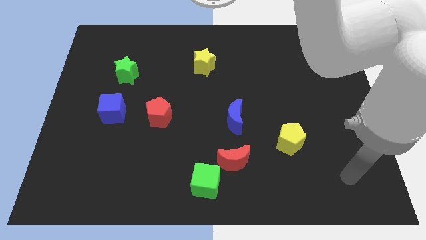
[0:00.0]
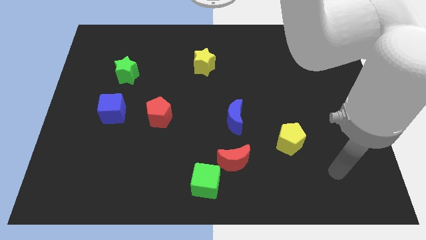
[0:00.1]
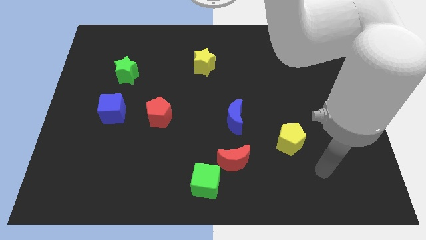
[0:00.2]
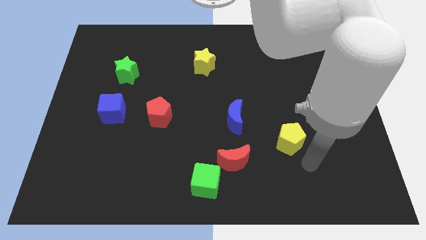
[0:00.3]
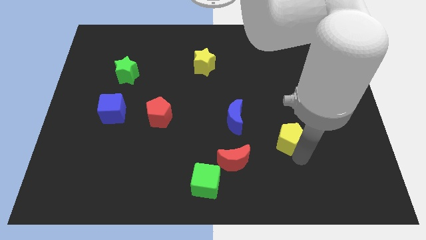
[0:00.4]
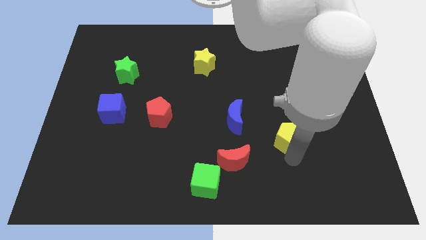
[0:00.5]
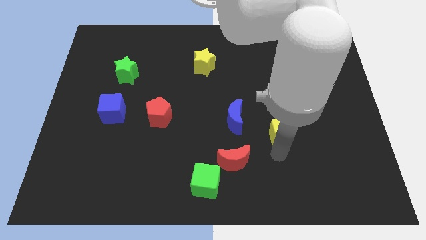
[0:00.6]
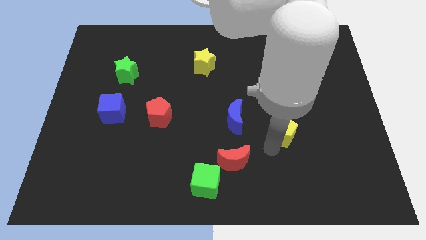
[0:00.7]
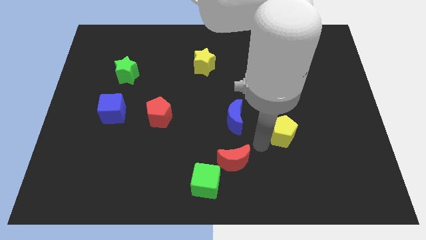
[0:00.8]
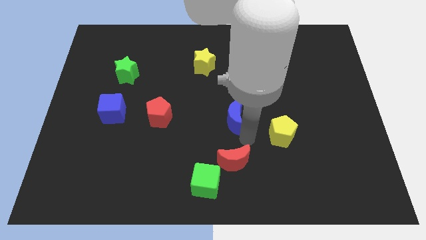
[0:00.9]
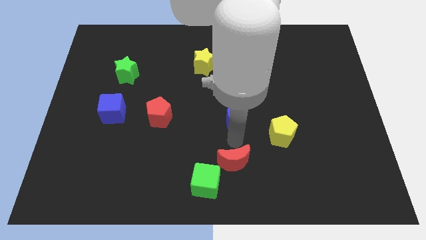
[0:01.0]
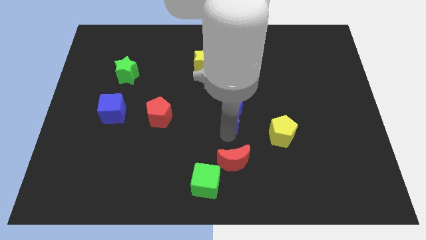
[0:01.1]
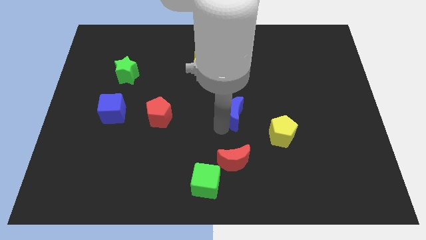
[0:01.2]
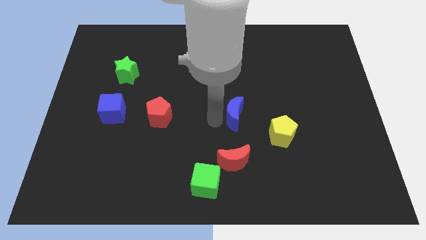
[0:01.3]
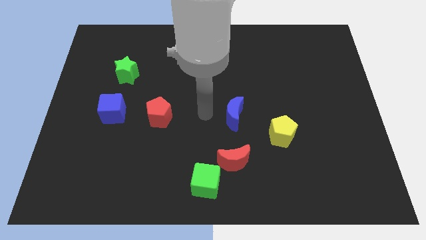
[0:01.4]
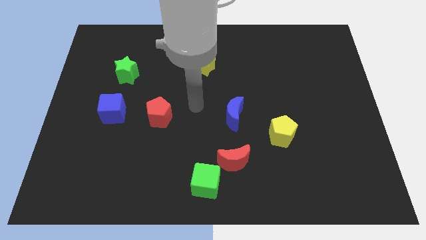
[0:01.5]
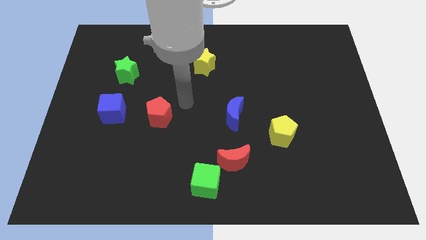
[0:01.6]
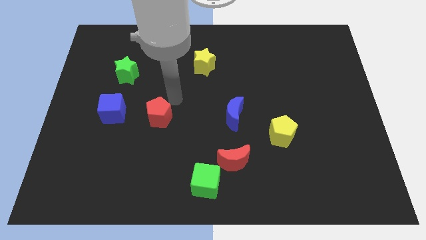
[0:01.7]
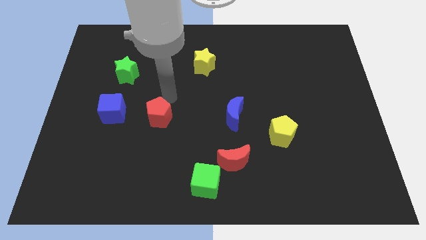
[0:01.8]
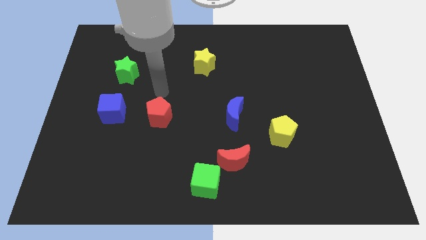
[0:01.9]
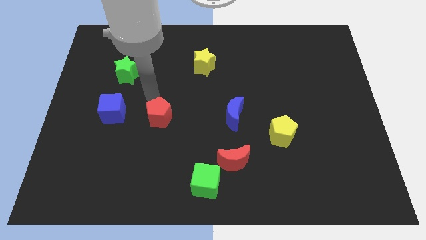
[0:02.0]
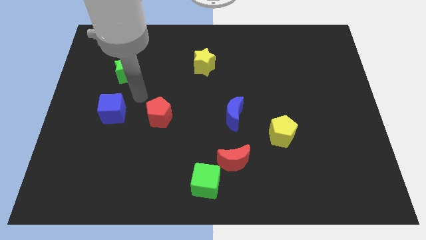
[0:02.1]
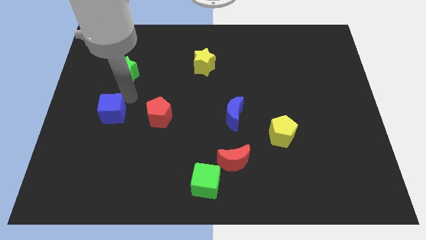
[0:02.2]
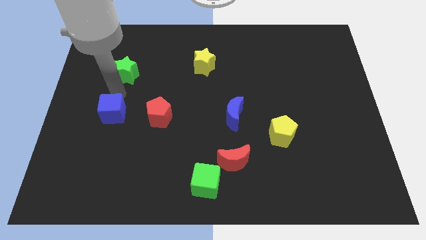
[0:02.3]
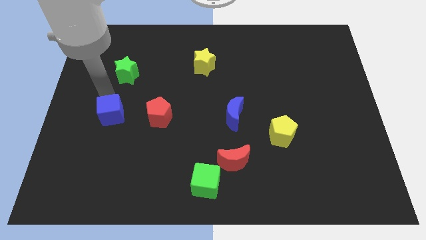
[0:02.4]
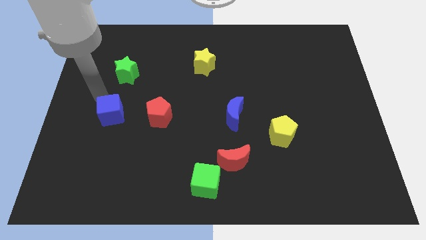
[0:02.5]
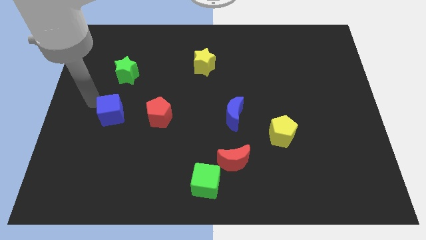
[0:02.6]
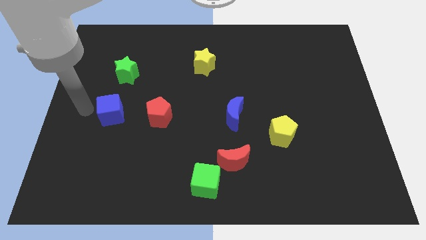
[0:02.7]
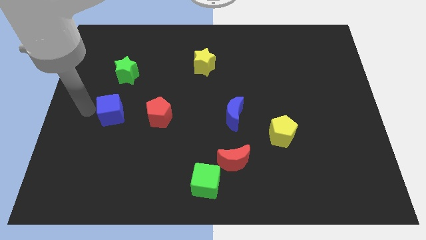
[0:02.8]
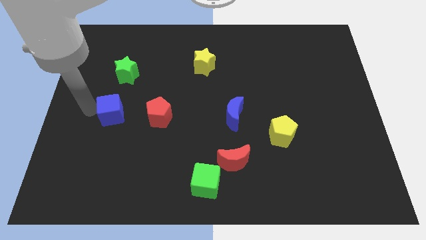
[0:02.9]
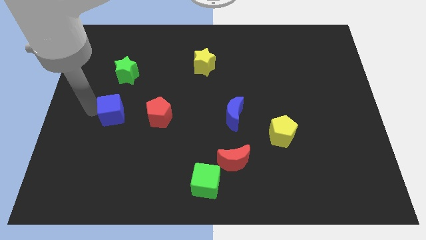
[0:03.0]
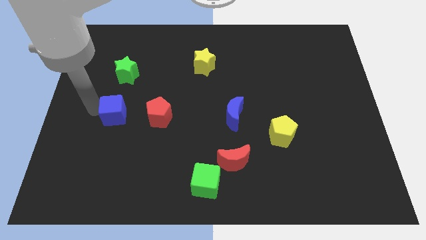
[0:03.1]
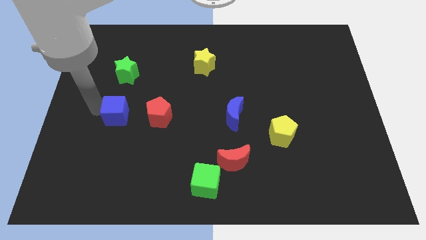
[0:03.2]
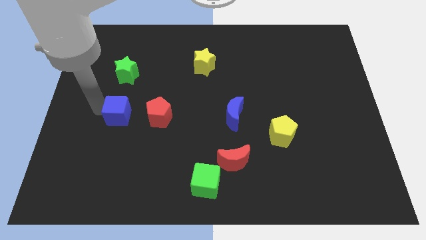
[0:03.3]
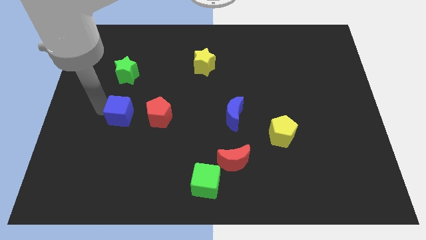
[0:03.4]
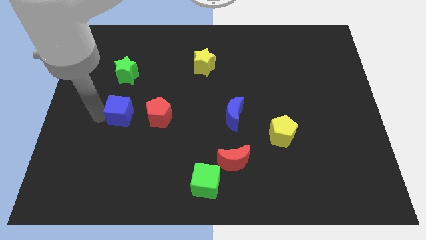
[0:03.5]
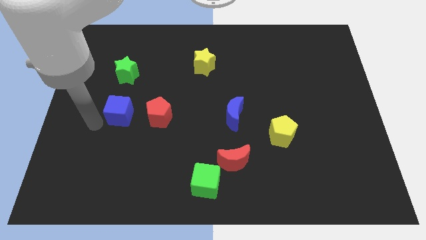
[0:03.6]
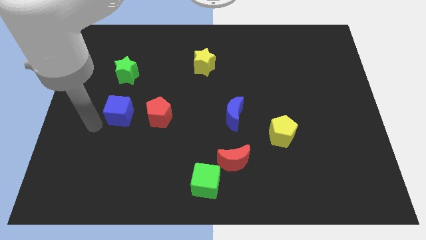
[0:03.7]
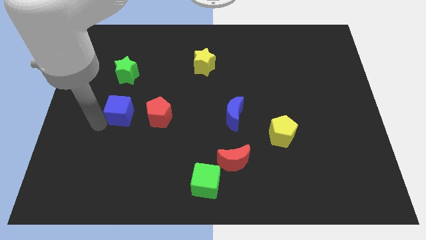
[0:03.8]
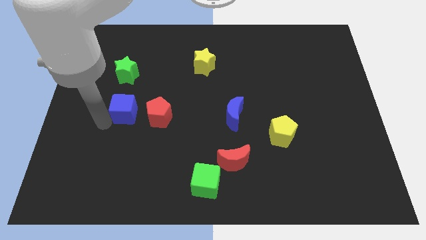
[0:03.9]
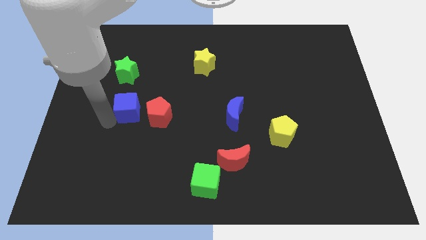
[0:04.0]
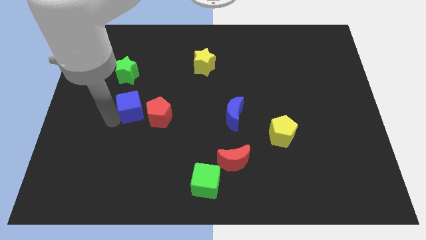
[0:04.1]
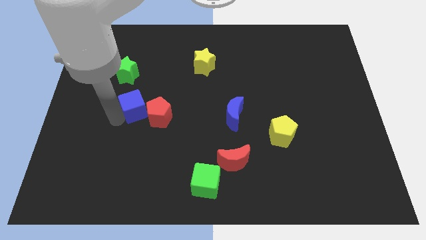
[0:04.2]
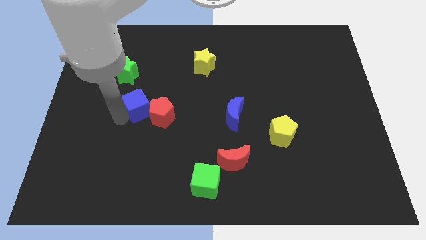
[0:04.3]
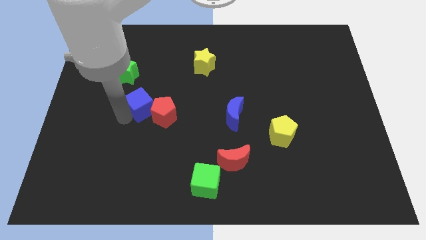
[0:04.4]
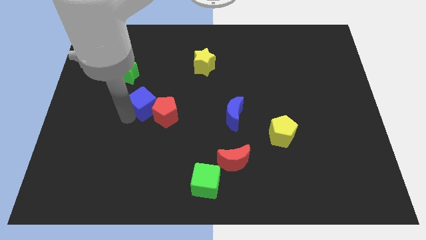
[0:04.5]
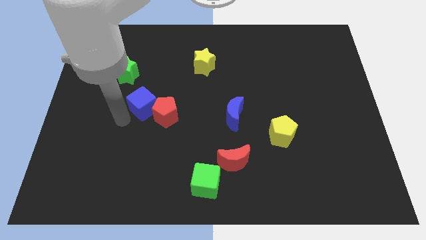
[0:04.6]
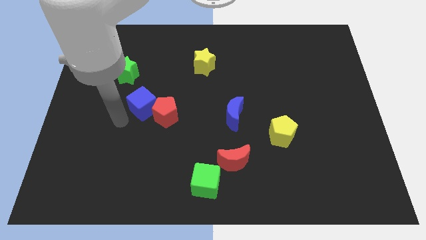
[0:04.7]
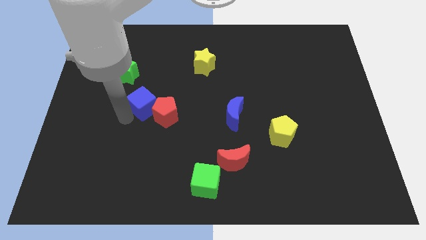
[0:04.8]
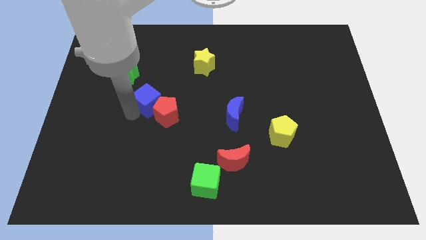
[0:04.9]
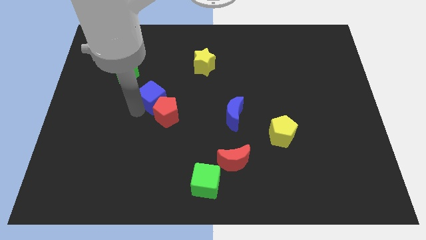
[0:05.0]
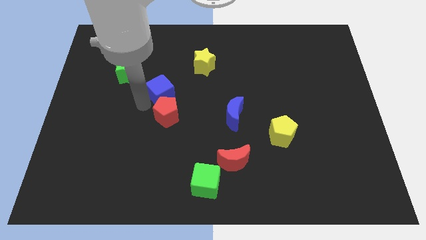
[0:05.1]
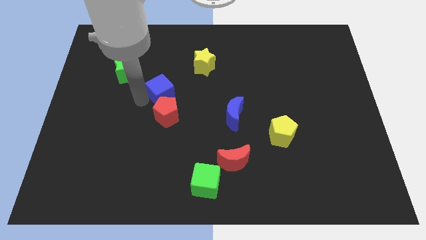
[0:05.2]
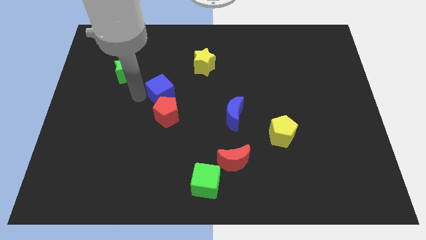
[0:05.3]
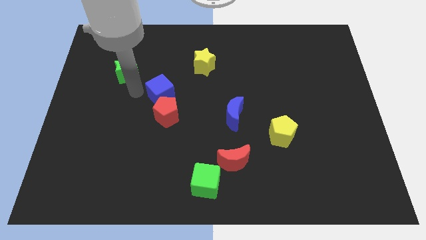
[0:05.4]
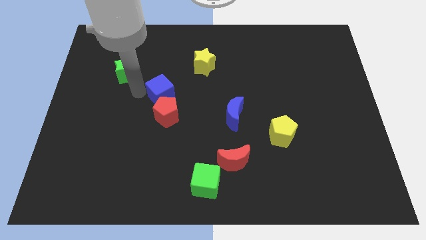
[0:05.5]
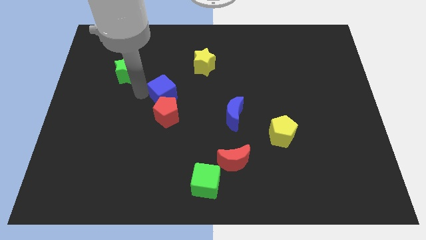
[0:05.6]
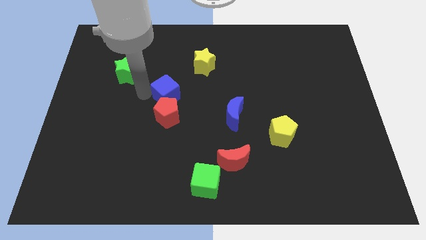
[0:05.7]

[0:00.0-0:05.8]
slide the blue cube to the top right side of the red pentagon
